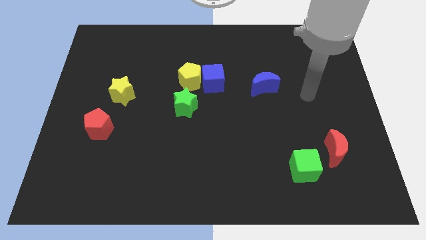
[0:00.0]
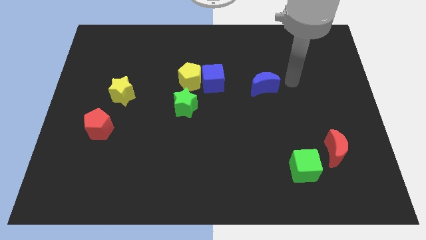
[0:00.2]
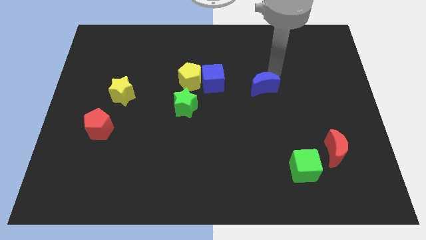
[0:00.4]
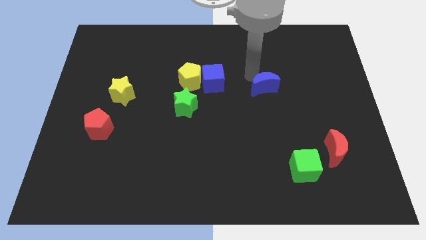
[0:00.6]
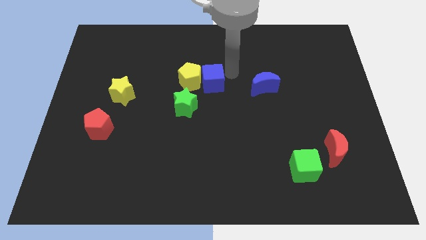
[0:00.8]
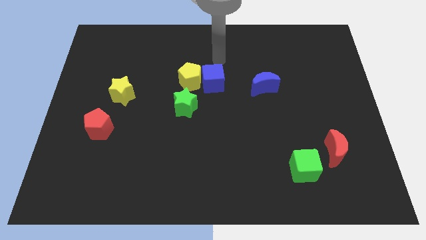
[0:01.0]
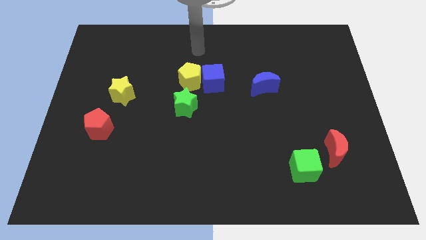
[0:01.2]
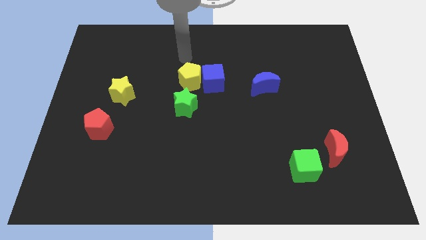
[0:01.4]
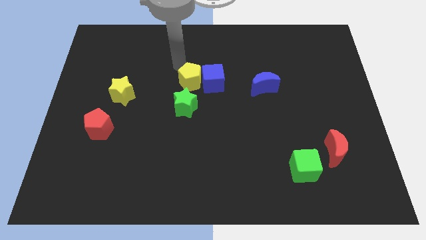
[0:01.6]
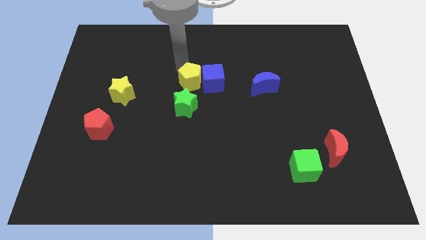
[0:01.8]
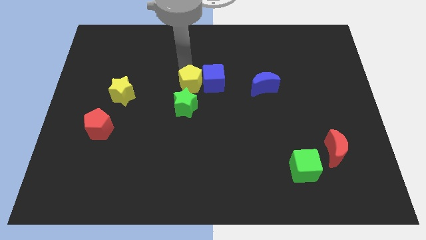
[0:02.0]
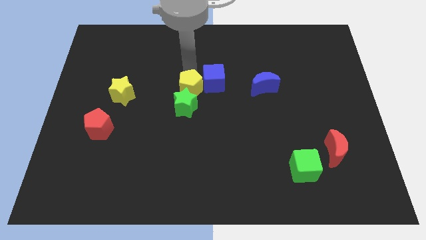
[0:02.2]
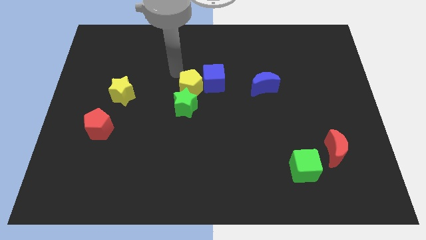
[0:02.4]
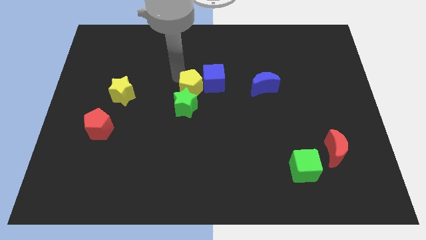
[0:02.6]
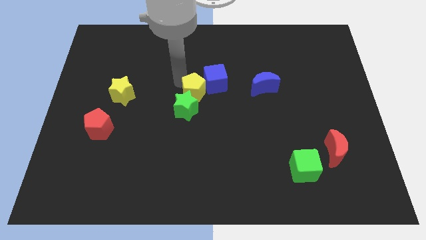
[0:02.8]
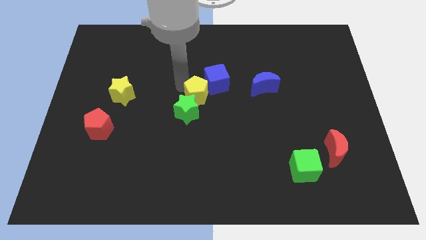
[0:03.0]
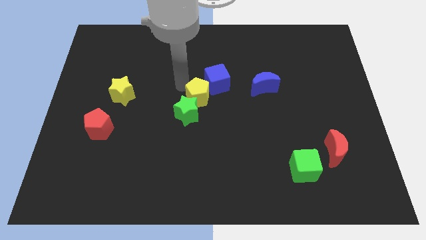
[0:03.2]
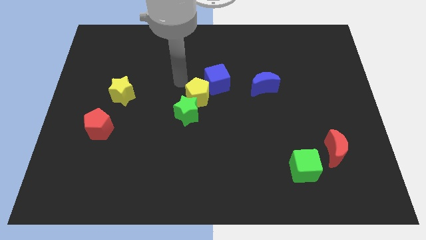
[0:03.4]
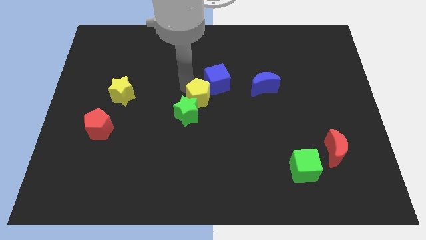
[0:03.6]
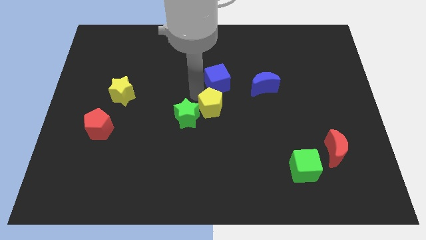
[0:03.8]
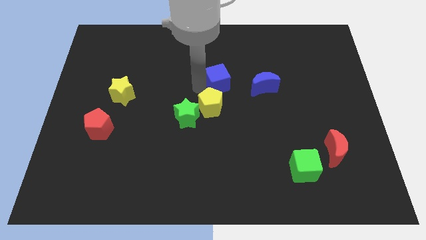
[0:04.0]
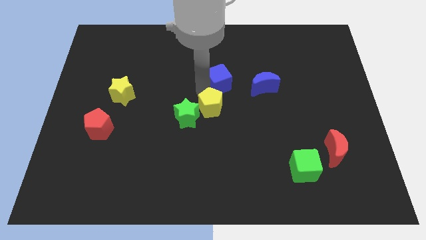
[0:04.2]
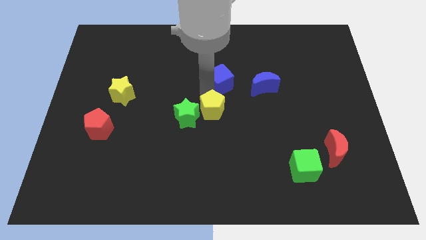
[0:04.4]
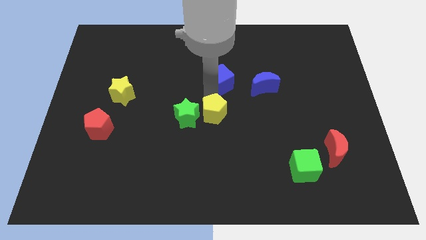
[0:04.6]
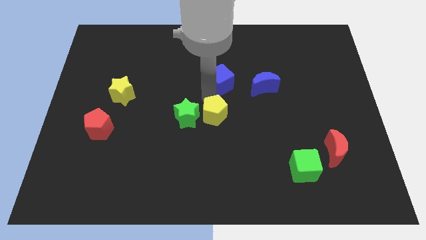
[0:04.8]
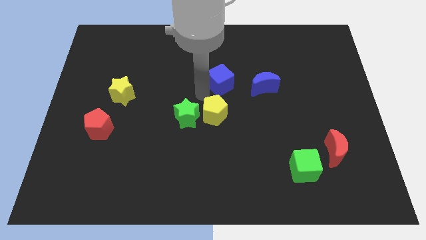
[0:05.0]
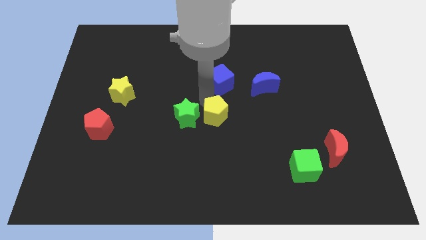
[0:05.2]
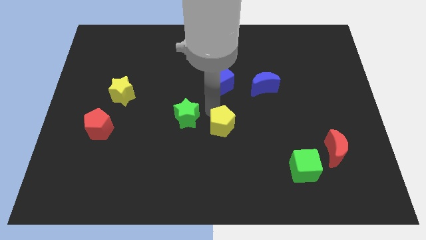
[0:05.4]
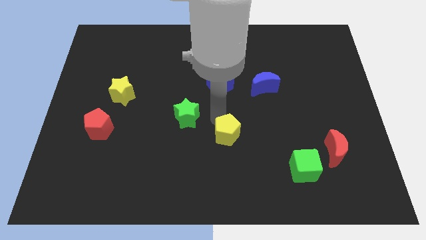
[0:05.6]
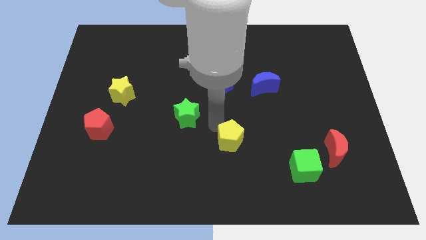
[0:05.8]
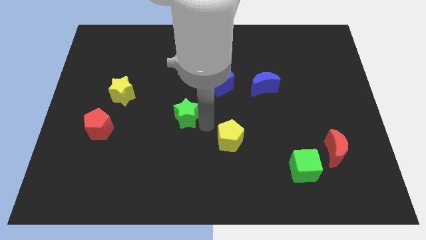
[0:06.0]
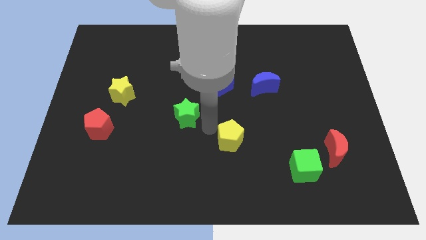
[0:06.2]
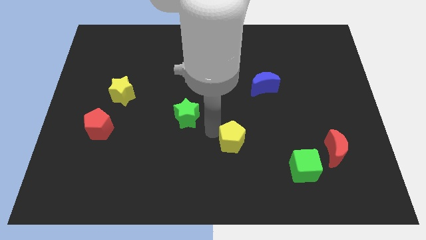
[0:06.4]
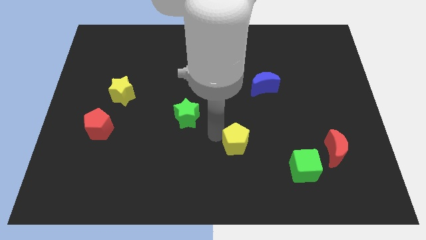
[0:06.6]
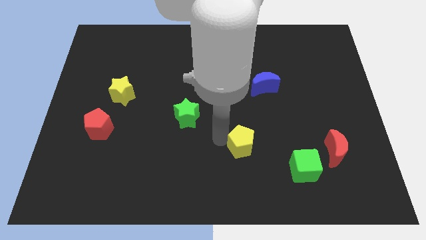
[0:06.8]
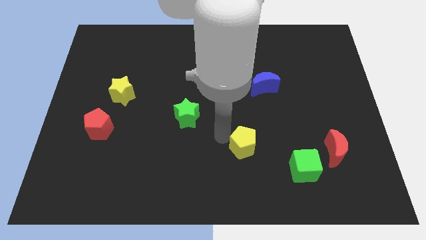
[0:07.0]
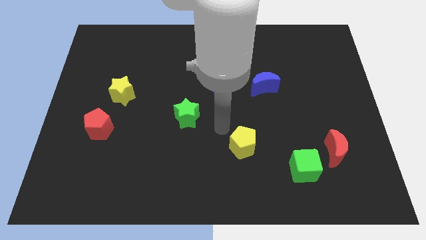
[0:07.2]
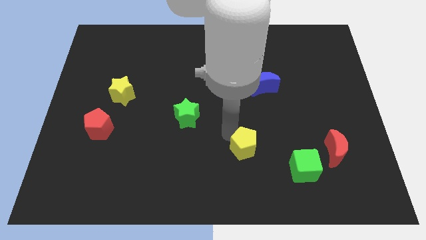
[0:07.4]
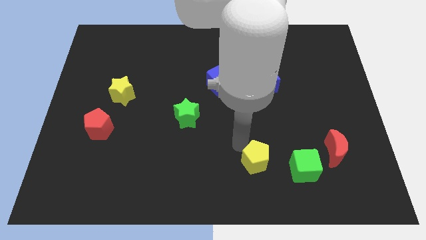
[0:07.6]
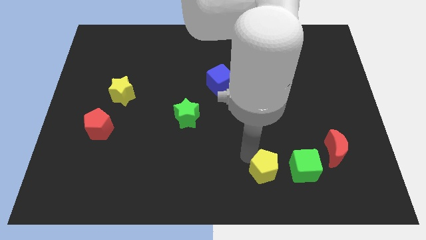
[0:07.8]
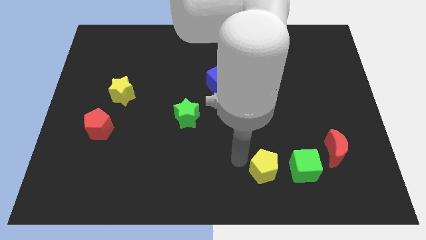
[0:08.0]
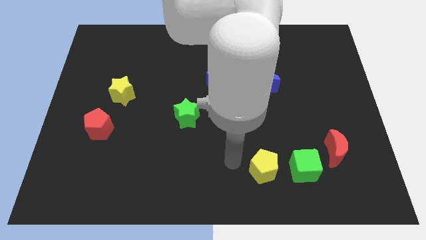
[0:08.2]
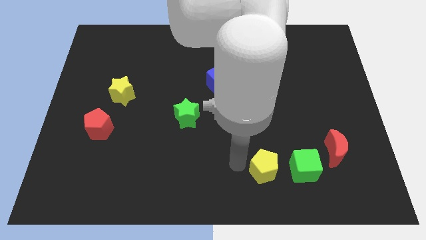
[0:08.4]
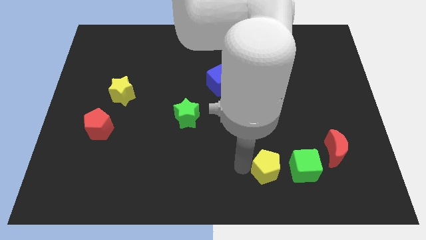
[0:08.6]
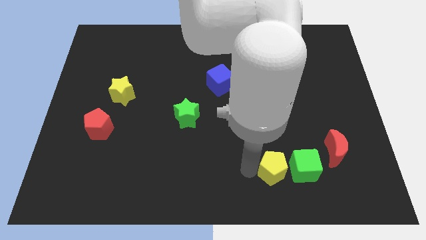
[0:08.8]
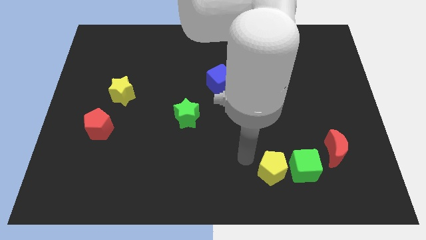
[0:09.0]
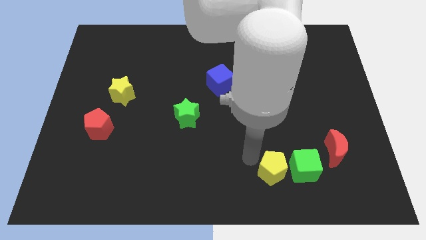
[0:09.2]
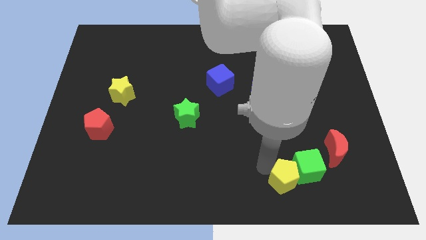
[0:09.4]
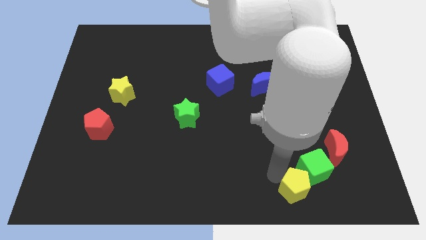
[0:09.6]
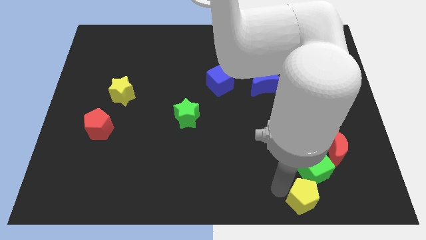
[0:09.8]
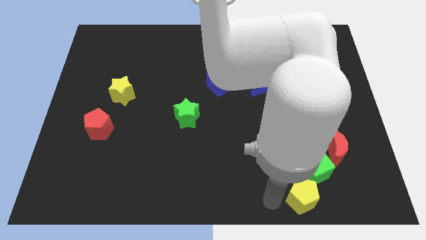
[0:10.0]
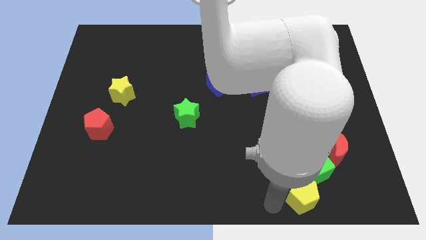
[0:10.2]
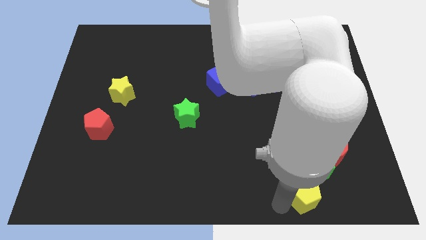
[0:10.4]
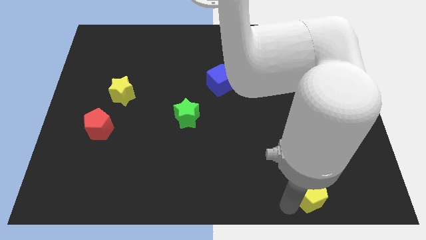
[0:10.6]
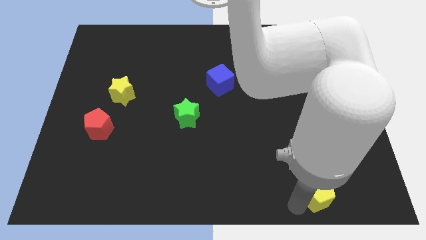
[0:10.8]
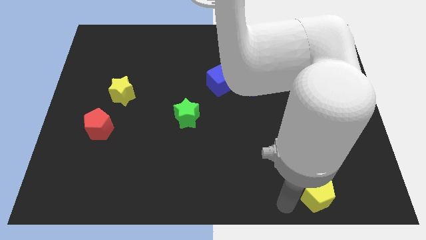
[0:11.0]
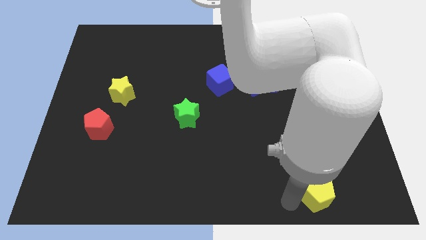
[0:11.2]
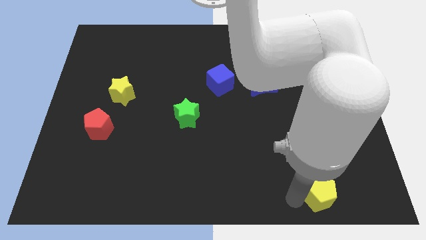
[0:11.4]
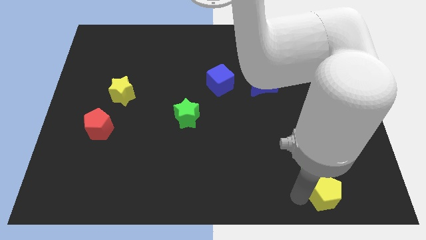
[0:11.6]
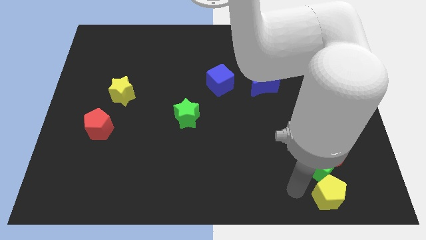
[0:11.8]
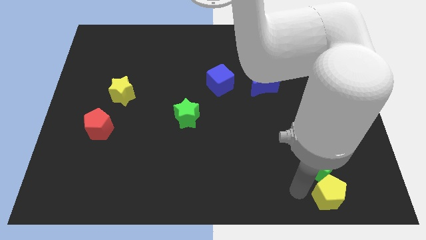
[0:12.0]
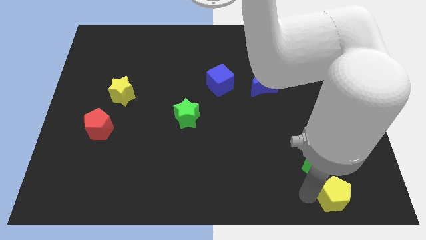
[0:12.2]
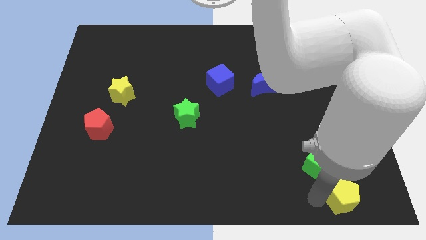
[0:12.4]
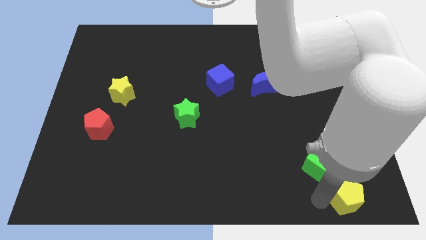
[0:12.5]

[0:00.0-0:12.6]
slide the yellow pentagon to the bottom right of the board
